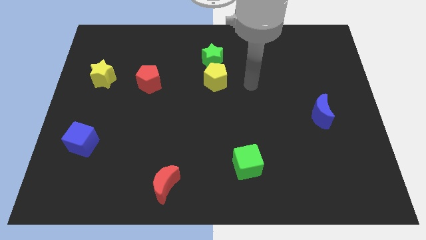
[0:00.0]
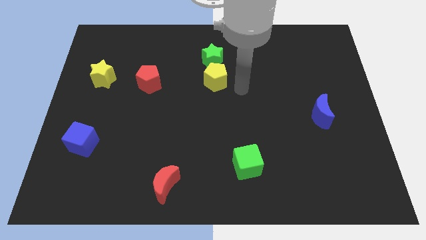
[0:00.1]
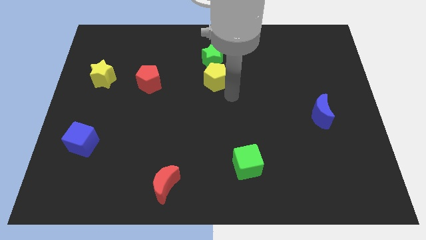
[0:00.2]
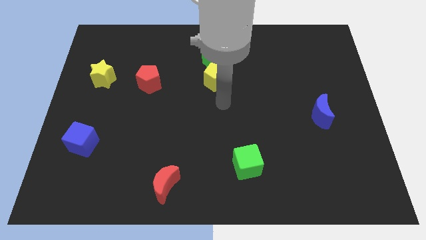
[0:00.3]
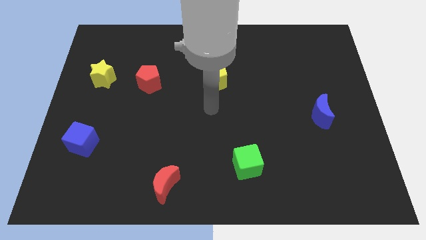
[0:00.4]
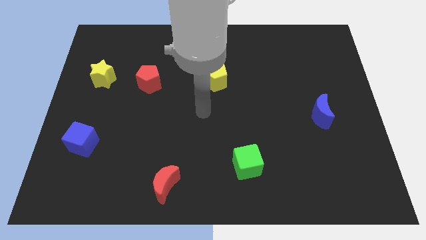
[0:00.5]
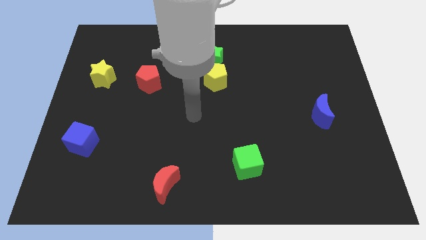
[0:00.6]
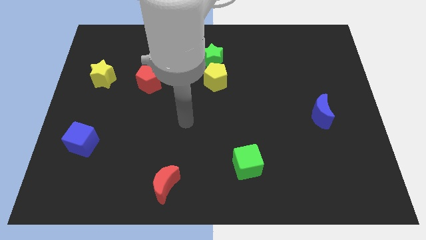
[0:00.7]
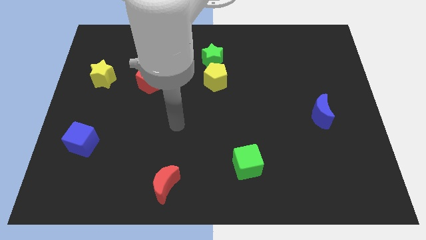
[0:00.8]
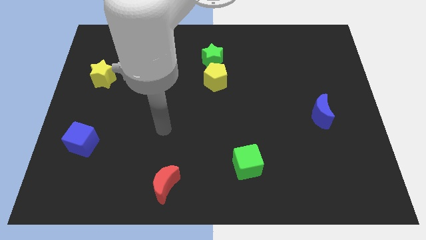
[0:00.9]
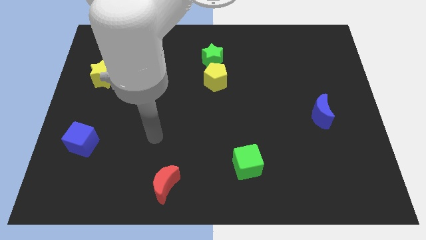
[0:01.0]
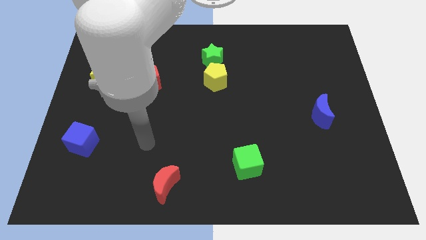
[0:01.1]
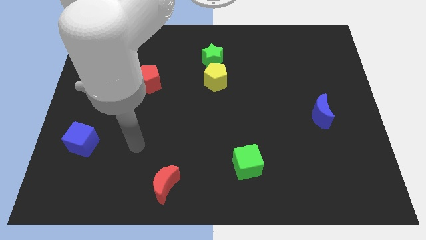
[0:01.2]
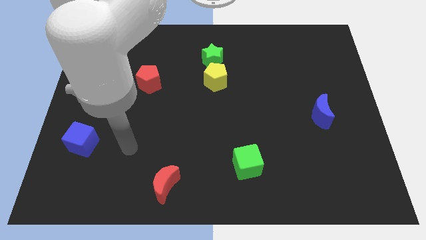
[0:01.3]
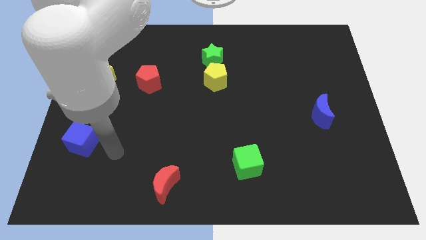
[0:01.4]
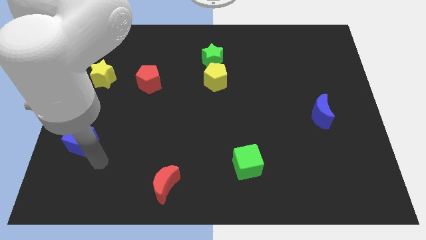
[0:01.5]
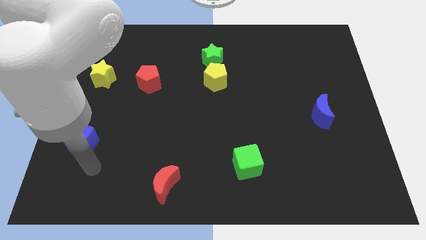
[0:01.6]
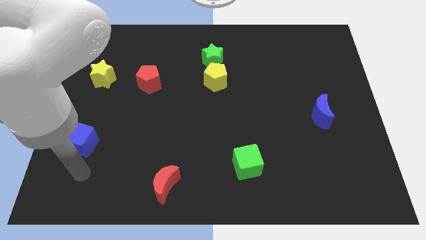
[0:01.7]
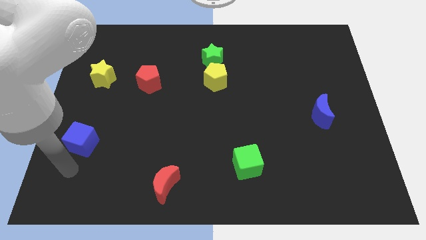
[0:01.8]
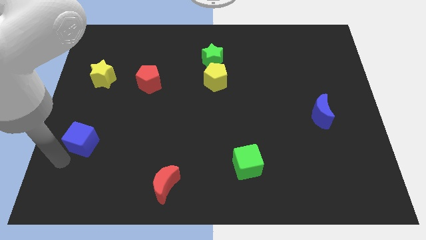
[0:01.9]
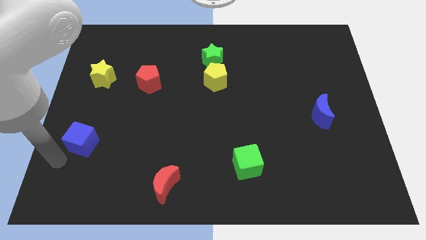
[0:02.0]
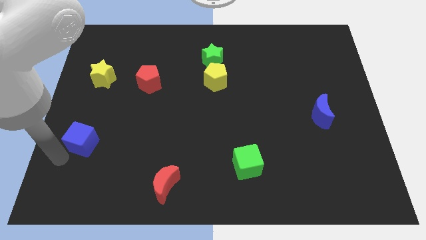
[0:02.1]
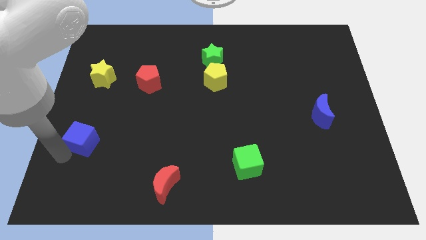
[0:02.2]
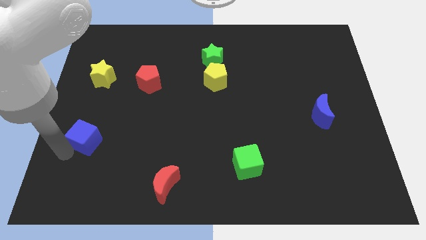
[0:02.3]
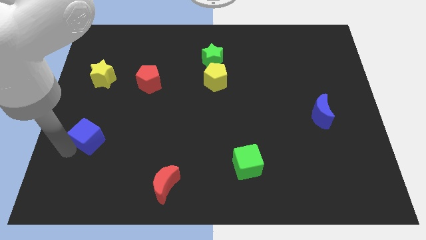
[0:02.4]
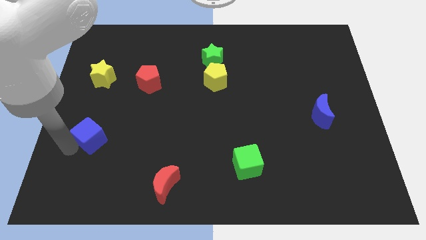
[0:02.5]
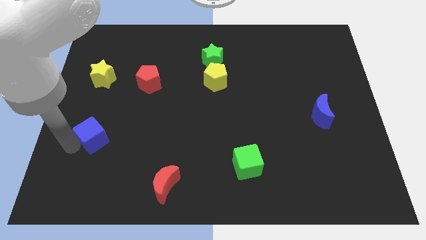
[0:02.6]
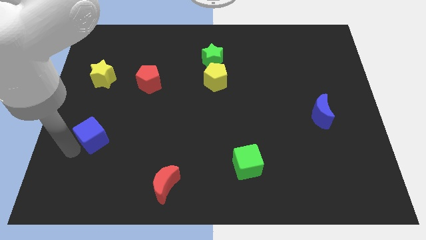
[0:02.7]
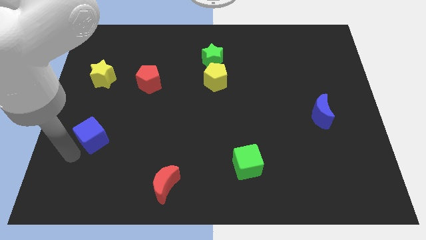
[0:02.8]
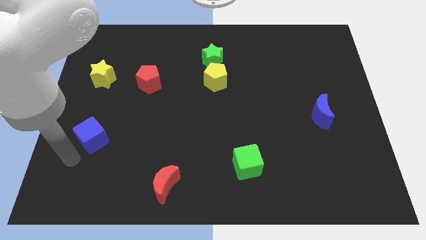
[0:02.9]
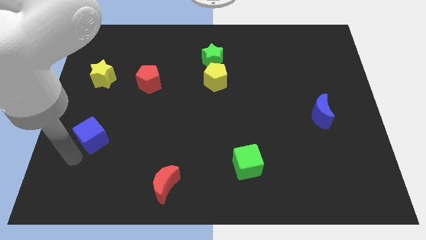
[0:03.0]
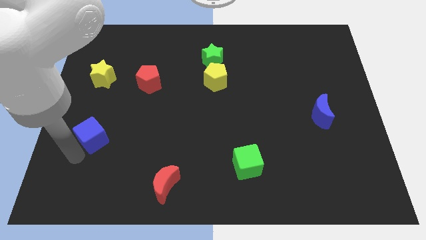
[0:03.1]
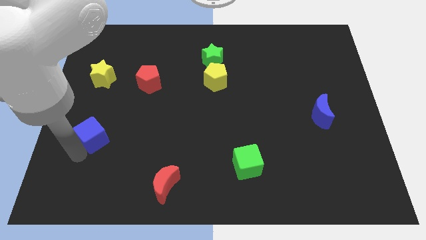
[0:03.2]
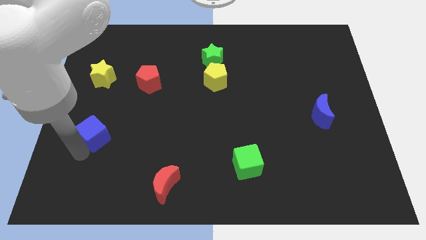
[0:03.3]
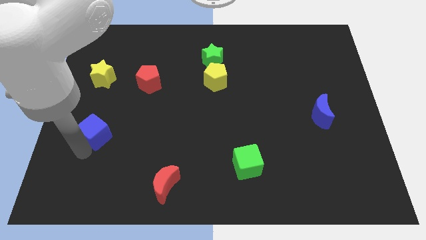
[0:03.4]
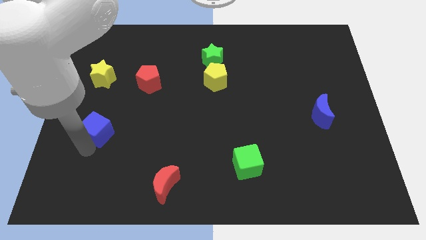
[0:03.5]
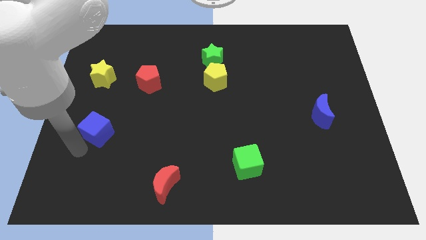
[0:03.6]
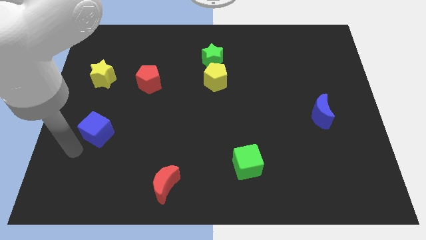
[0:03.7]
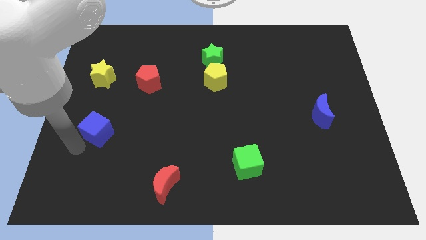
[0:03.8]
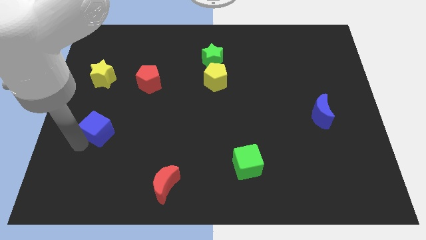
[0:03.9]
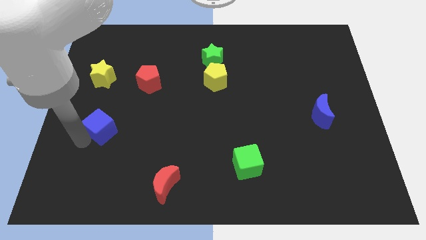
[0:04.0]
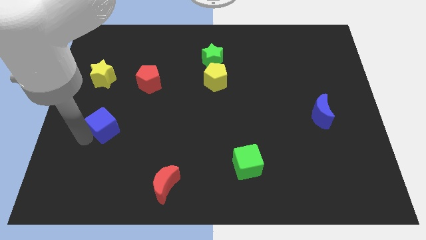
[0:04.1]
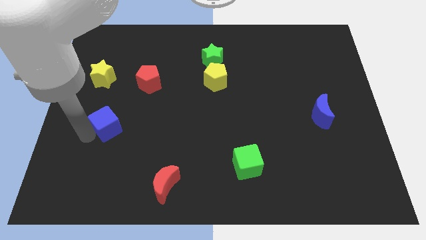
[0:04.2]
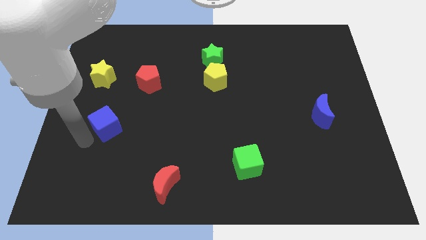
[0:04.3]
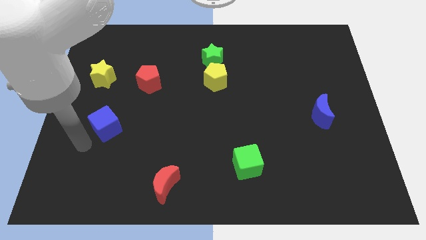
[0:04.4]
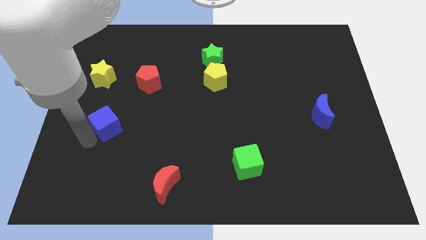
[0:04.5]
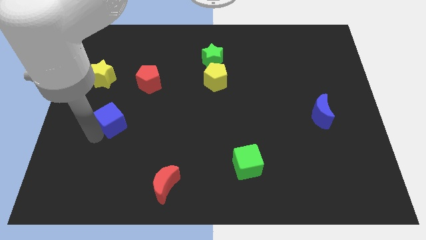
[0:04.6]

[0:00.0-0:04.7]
slide the blue cube somewhat upwards and right diagonally

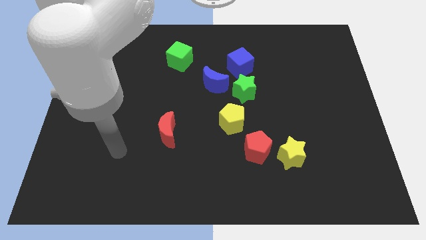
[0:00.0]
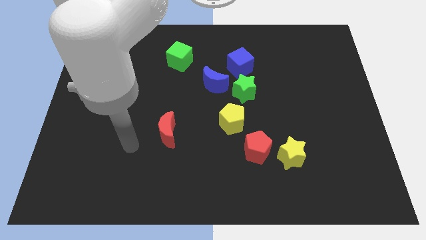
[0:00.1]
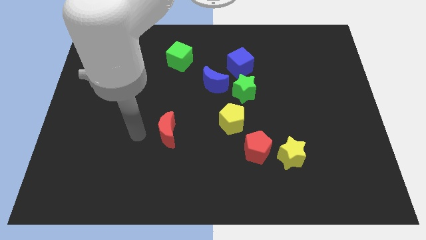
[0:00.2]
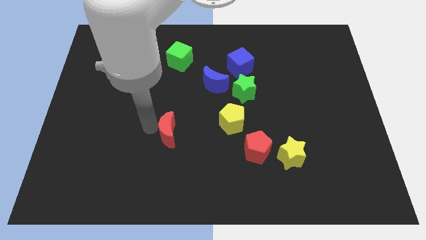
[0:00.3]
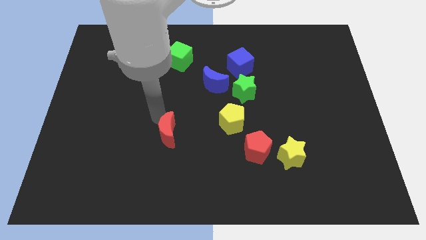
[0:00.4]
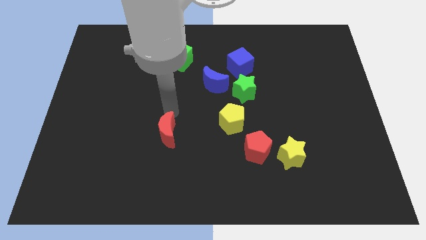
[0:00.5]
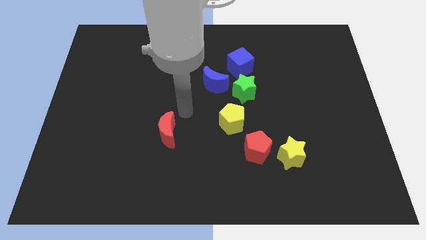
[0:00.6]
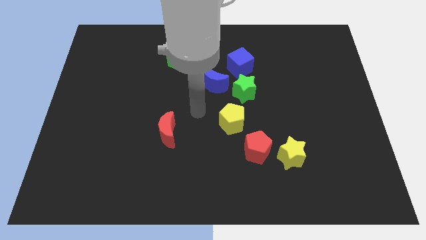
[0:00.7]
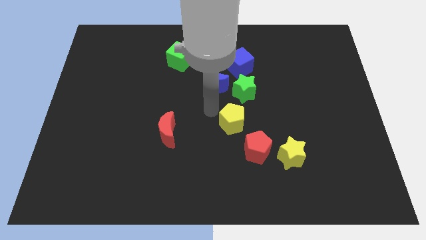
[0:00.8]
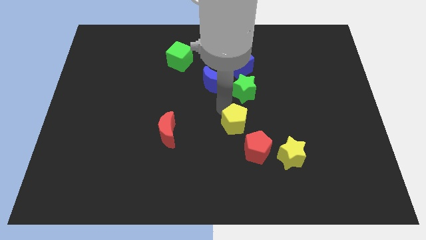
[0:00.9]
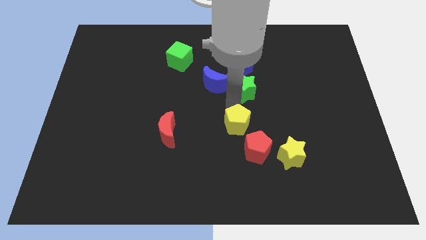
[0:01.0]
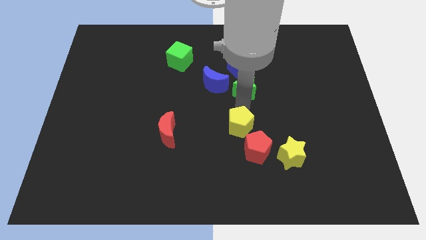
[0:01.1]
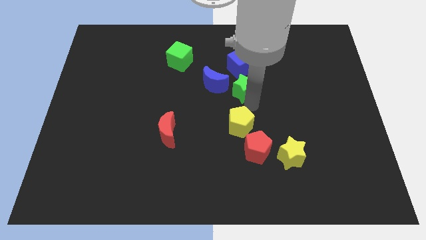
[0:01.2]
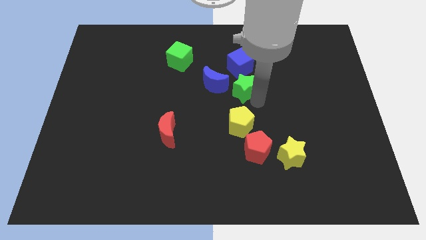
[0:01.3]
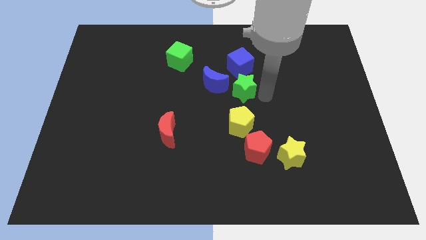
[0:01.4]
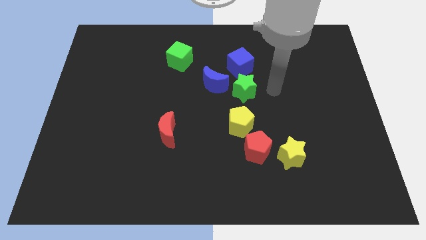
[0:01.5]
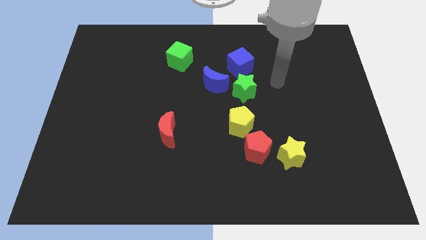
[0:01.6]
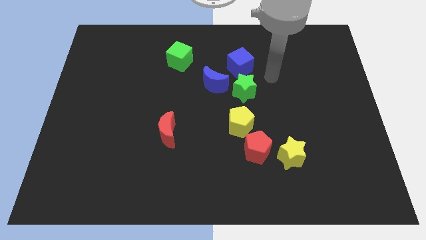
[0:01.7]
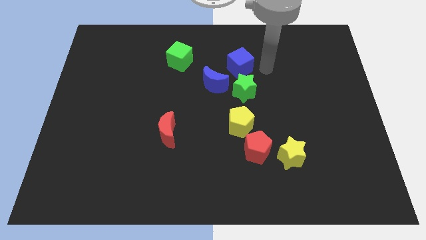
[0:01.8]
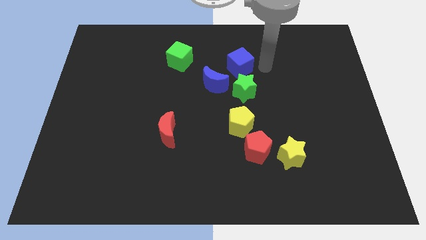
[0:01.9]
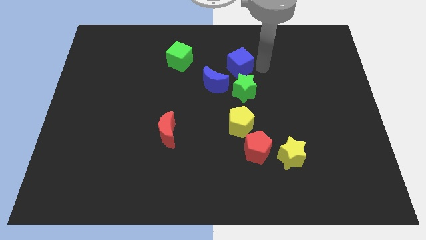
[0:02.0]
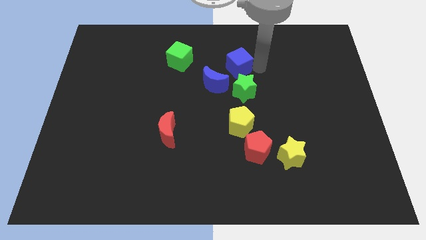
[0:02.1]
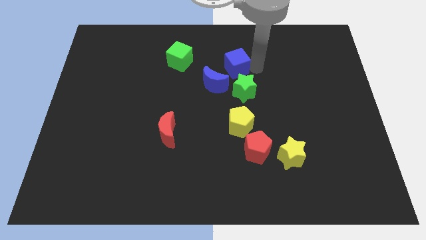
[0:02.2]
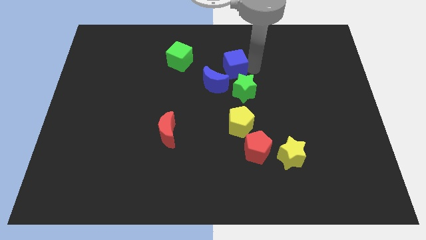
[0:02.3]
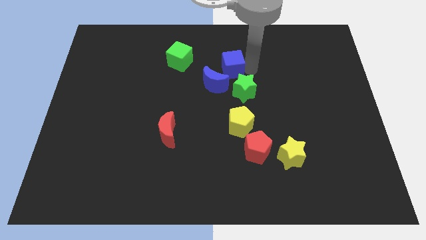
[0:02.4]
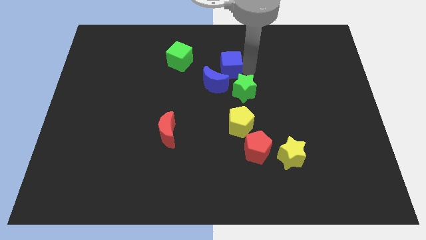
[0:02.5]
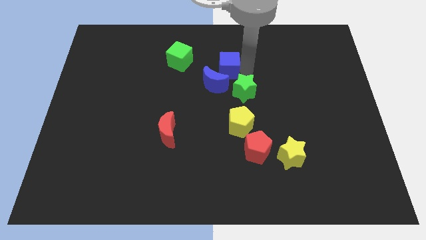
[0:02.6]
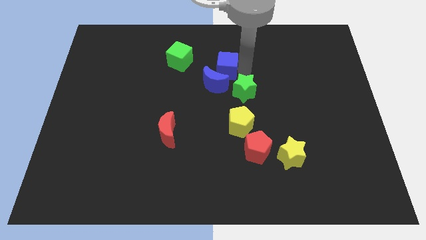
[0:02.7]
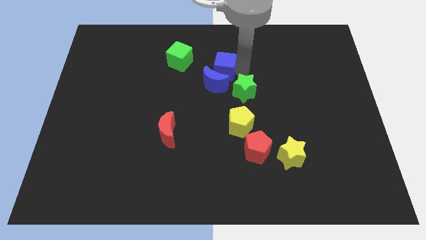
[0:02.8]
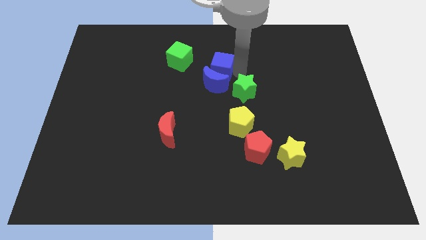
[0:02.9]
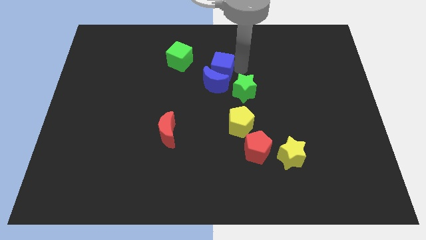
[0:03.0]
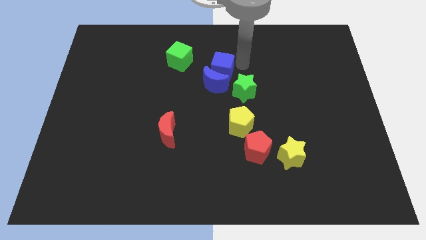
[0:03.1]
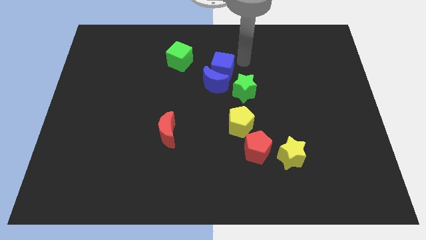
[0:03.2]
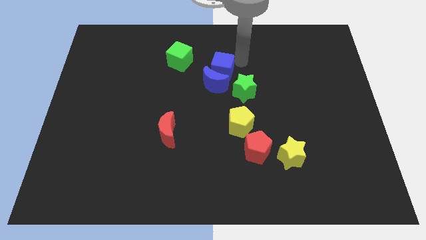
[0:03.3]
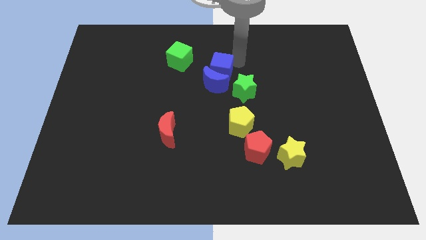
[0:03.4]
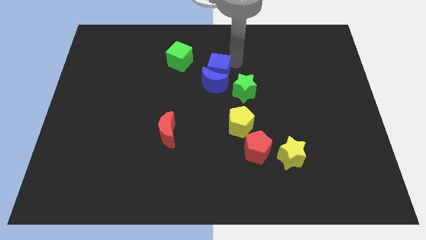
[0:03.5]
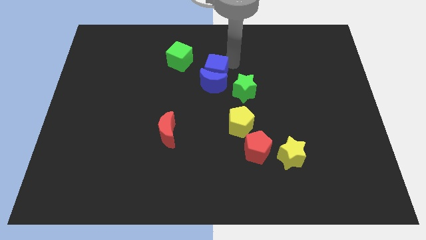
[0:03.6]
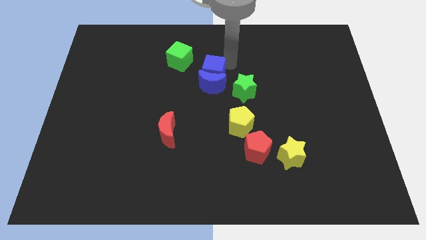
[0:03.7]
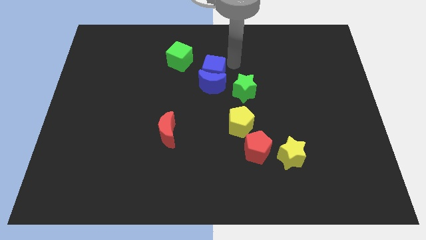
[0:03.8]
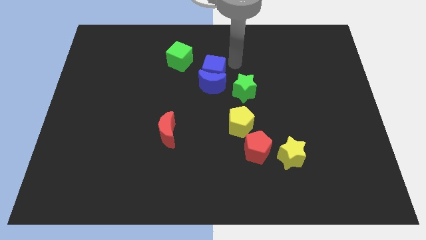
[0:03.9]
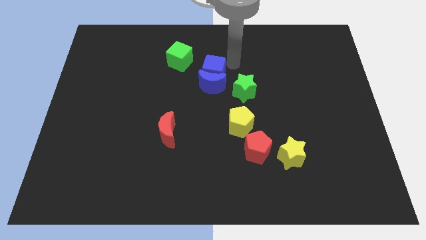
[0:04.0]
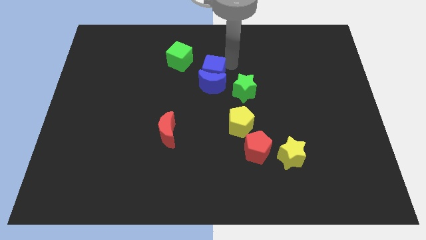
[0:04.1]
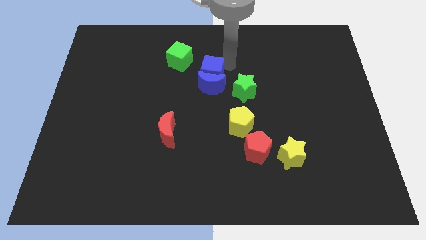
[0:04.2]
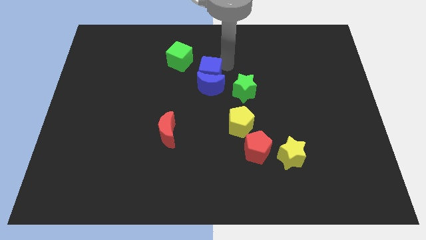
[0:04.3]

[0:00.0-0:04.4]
slightly slide the blue cube diagonally down and left
